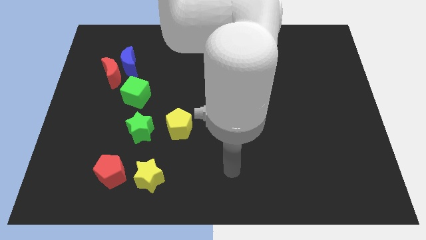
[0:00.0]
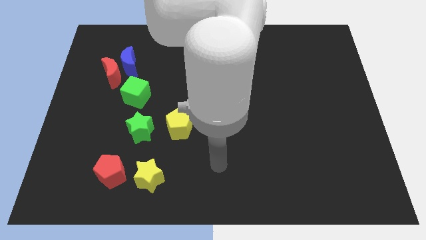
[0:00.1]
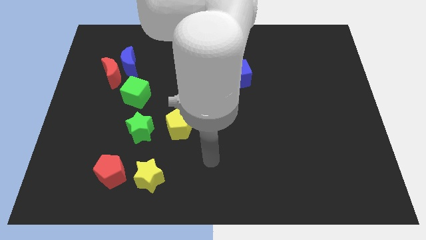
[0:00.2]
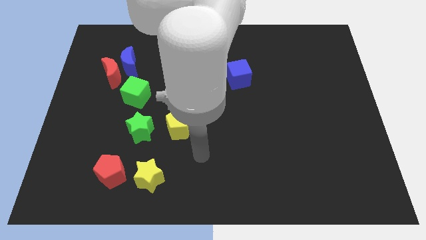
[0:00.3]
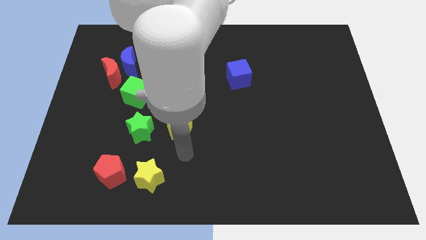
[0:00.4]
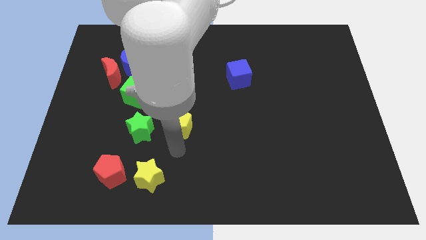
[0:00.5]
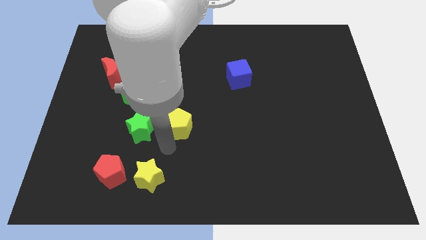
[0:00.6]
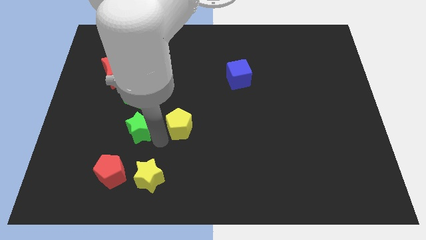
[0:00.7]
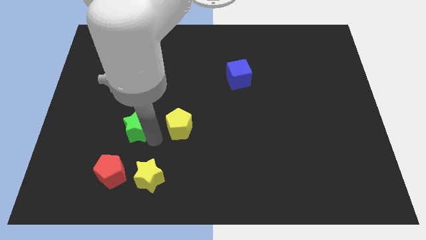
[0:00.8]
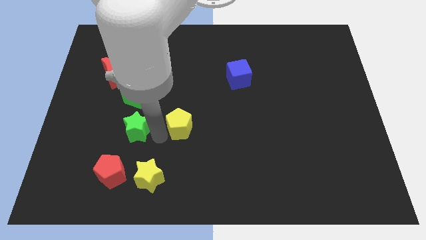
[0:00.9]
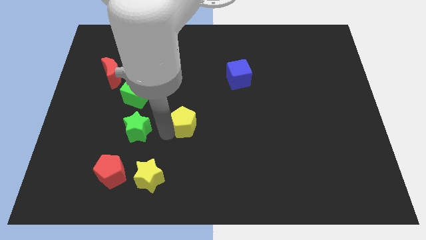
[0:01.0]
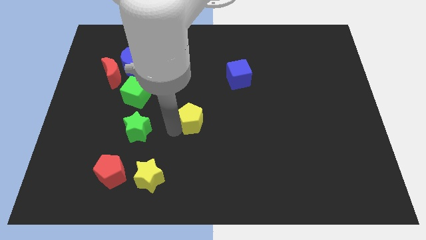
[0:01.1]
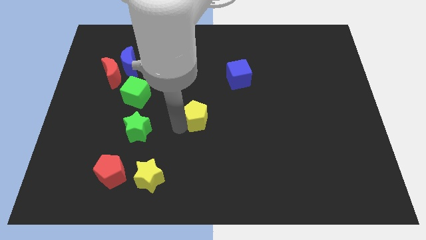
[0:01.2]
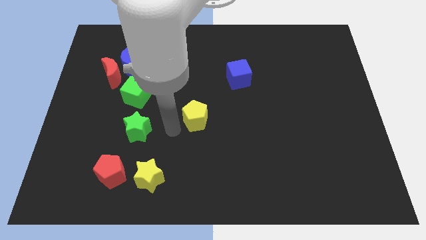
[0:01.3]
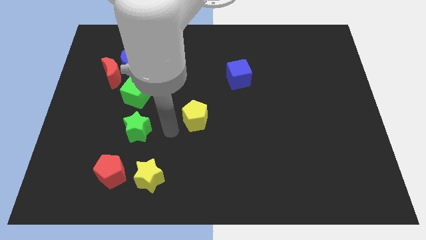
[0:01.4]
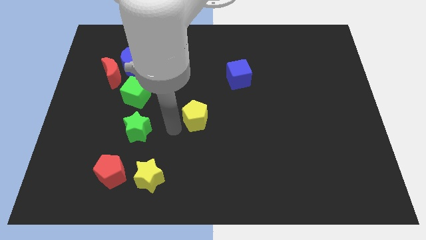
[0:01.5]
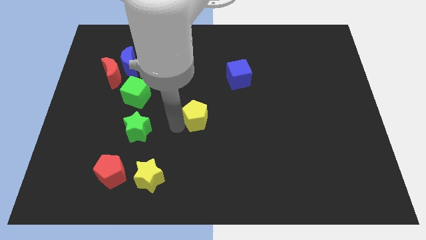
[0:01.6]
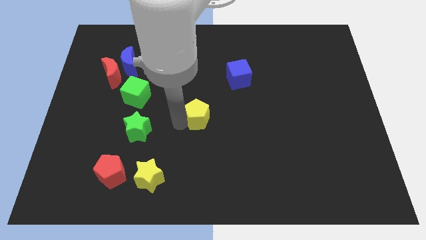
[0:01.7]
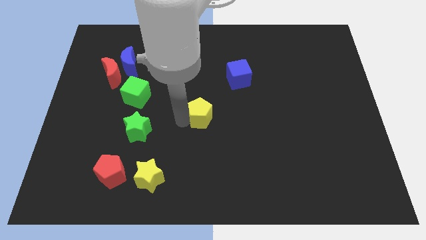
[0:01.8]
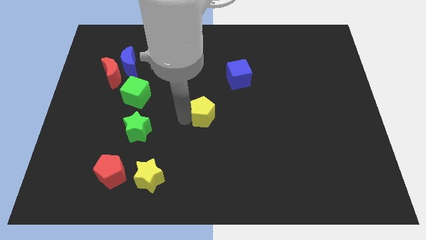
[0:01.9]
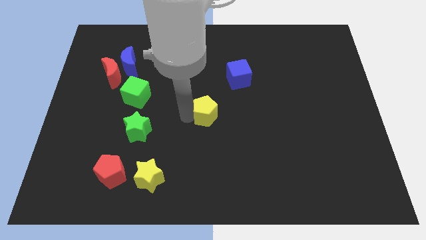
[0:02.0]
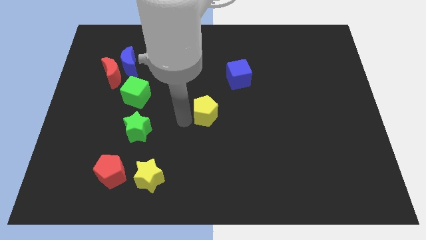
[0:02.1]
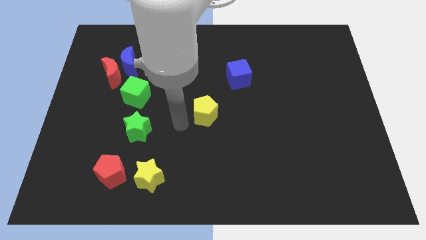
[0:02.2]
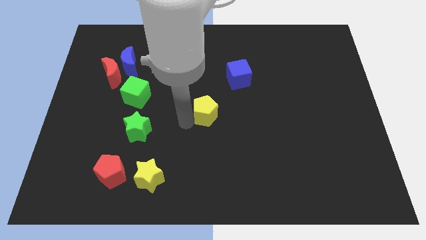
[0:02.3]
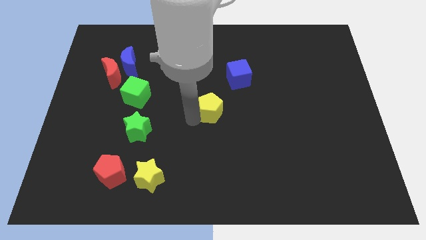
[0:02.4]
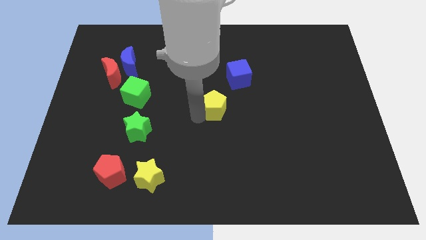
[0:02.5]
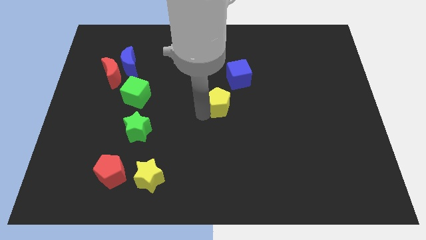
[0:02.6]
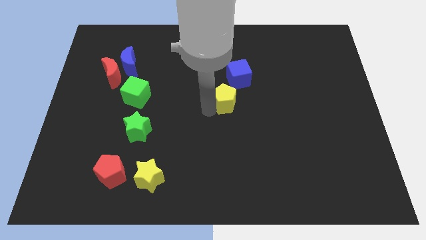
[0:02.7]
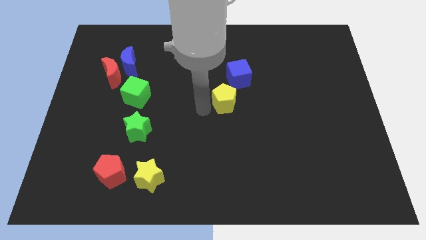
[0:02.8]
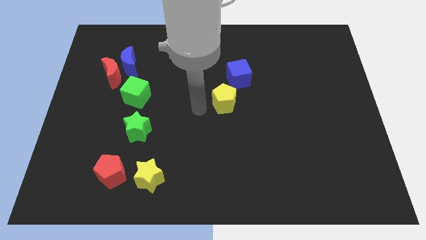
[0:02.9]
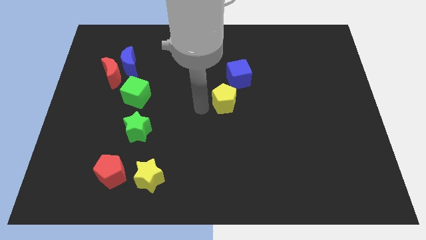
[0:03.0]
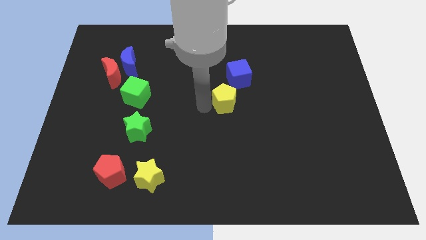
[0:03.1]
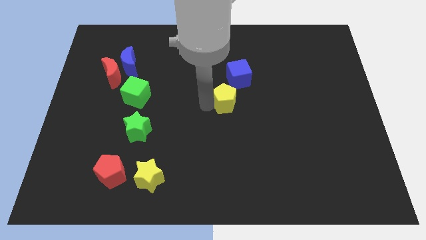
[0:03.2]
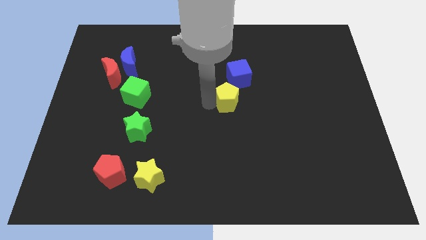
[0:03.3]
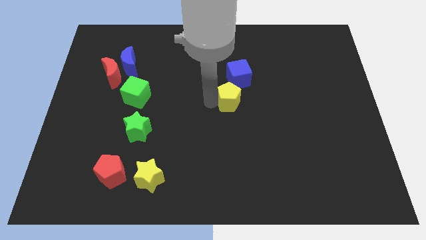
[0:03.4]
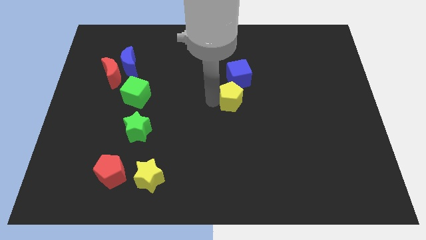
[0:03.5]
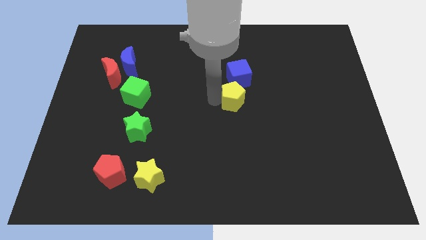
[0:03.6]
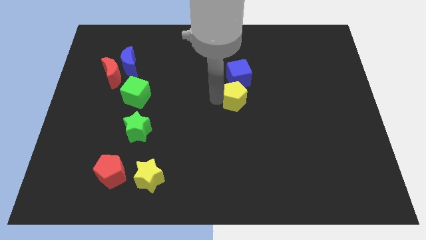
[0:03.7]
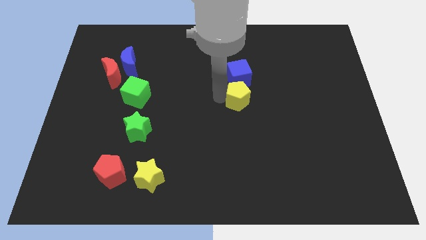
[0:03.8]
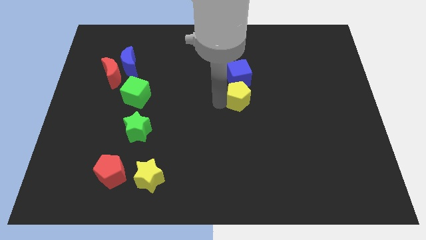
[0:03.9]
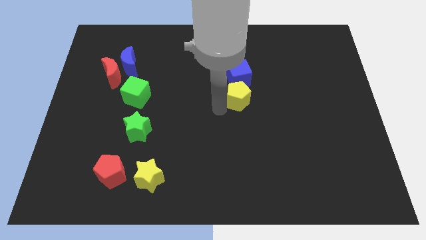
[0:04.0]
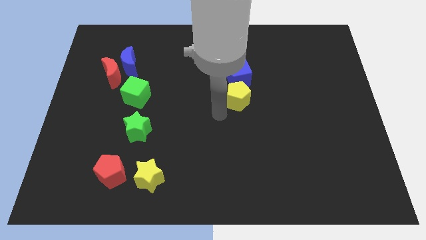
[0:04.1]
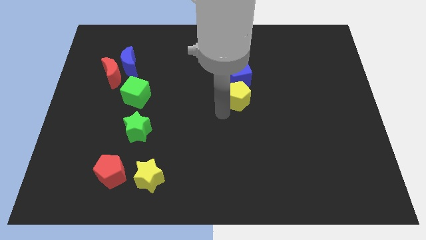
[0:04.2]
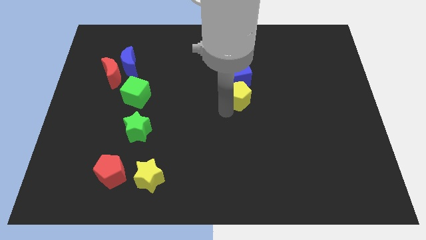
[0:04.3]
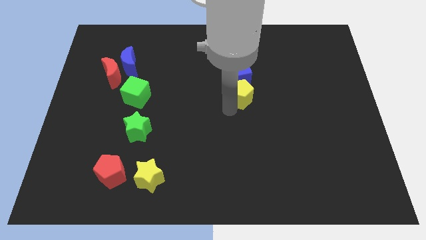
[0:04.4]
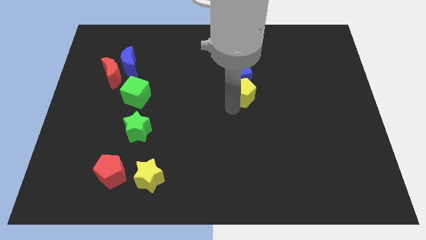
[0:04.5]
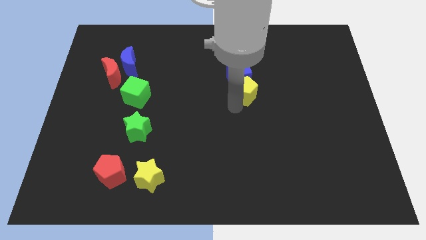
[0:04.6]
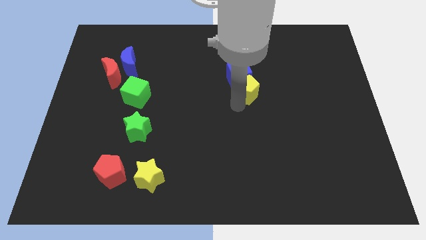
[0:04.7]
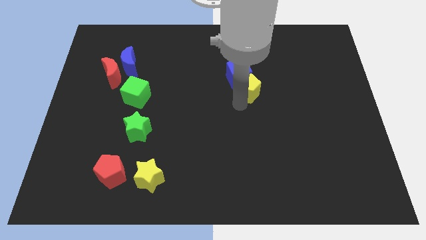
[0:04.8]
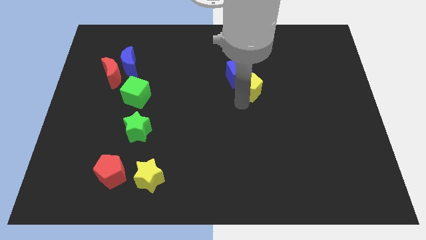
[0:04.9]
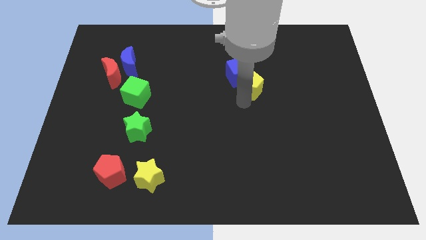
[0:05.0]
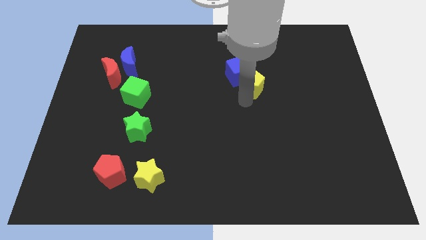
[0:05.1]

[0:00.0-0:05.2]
push the yellow pentagon up and to the right

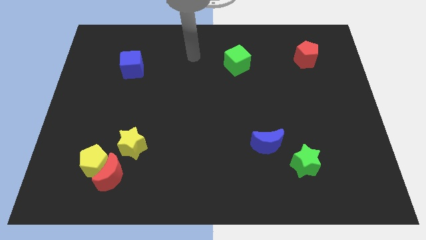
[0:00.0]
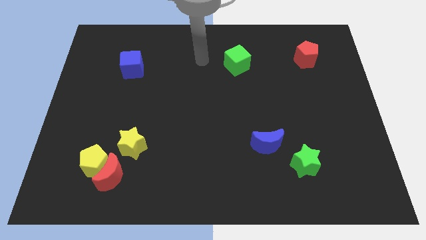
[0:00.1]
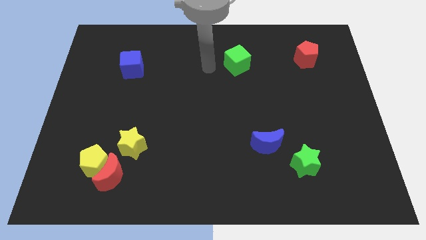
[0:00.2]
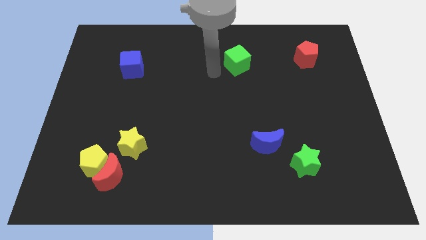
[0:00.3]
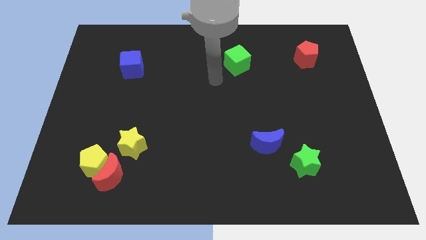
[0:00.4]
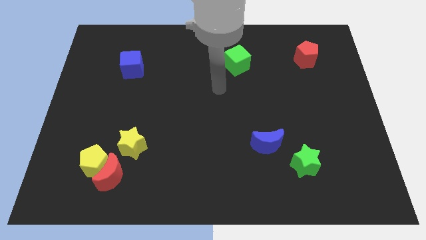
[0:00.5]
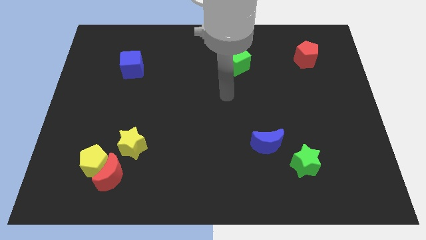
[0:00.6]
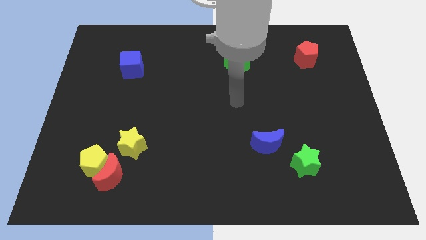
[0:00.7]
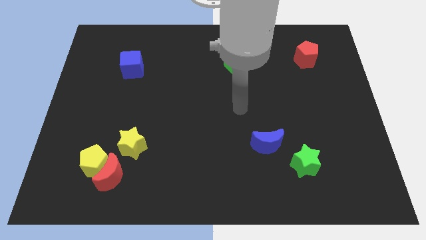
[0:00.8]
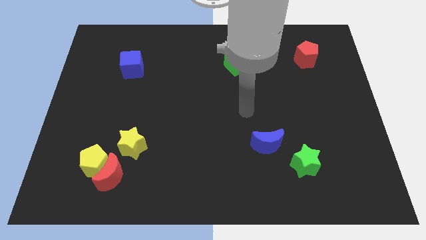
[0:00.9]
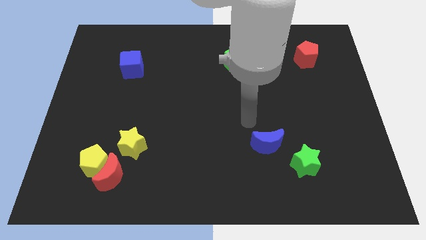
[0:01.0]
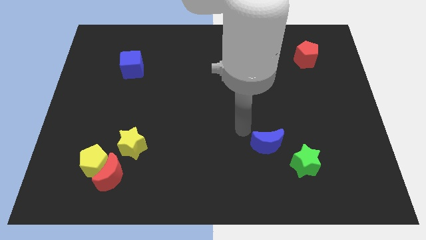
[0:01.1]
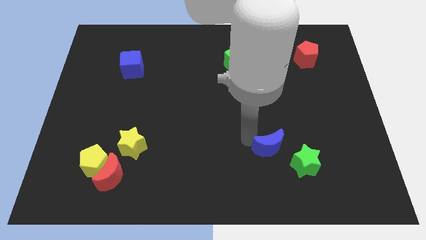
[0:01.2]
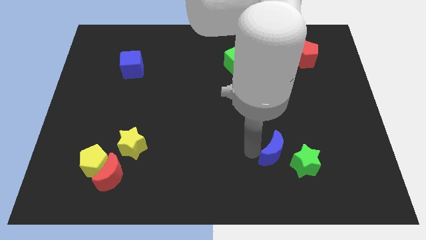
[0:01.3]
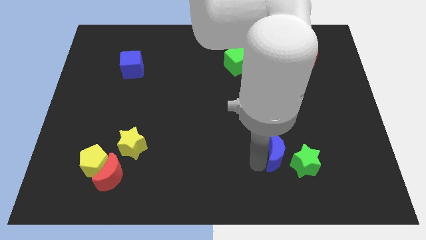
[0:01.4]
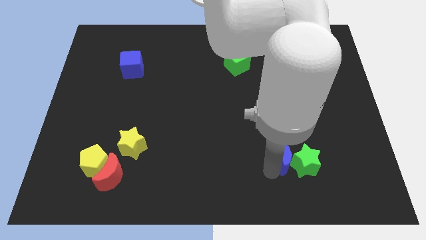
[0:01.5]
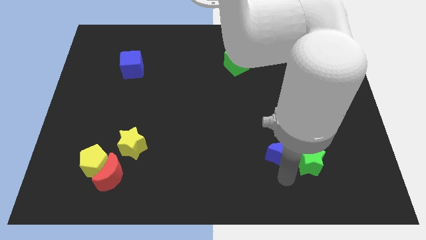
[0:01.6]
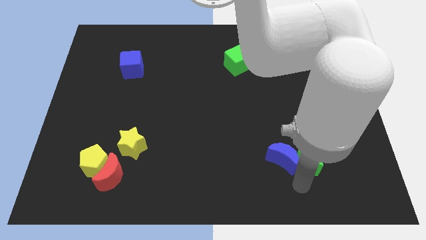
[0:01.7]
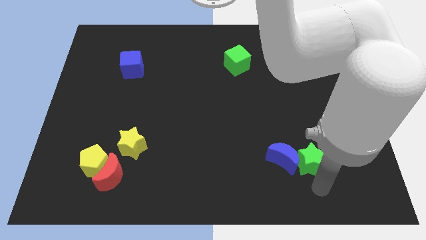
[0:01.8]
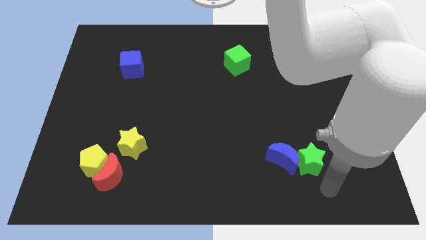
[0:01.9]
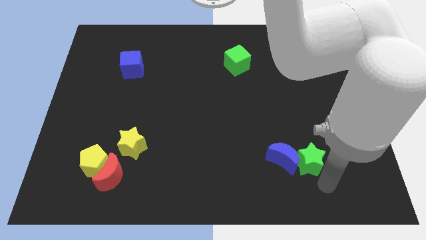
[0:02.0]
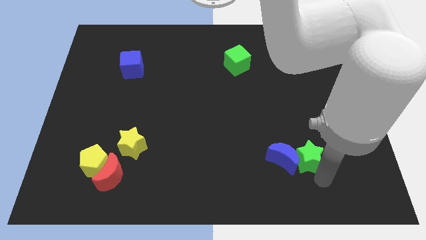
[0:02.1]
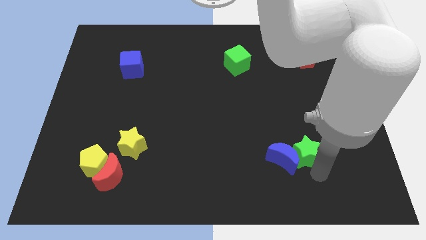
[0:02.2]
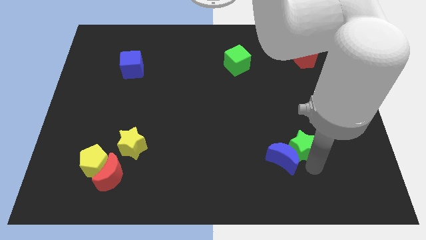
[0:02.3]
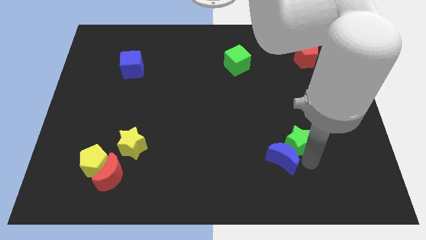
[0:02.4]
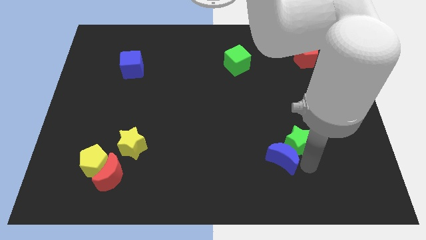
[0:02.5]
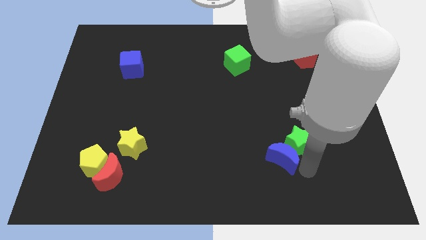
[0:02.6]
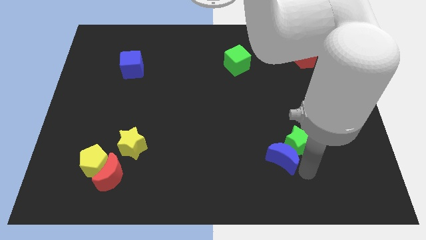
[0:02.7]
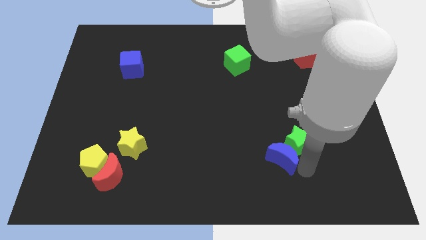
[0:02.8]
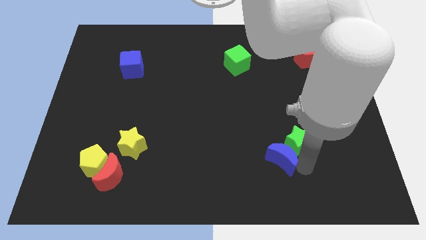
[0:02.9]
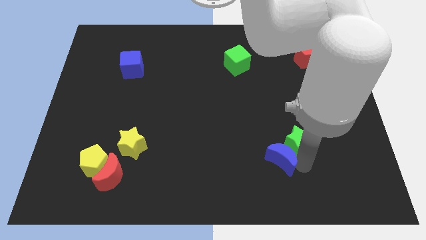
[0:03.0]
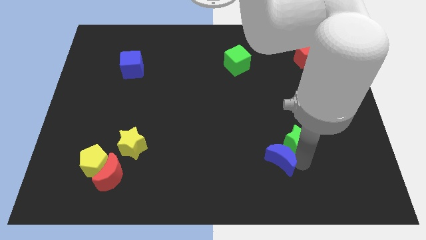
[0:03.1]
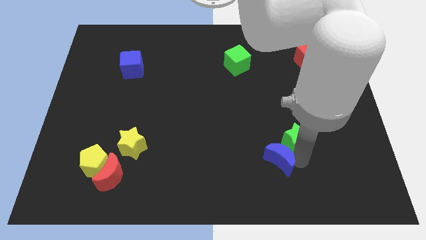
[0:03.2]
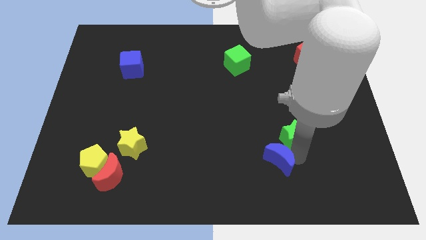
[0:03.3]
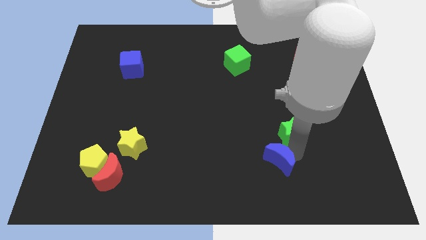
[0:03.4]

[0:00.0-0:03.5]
push the green star a little bit up
